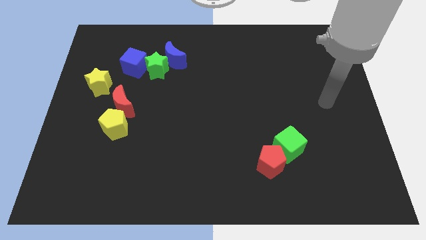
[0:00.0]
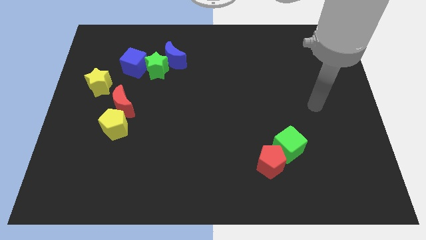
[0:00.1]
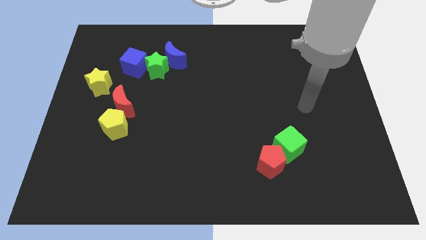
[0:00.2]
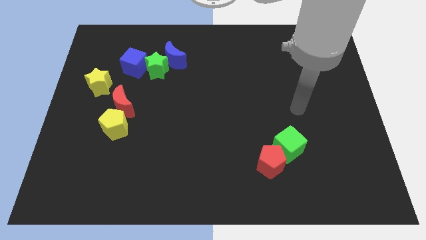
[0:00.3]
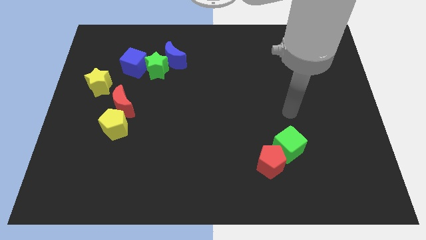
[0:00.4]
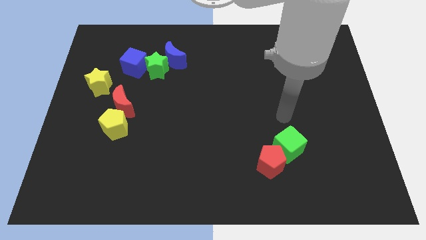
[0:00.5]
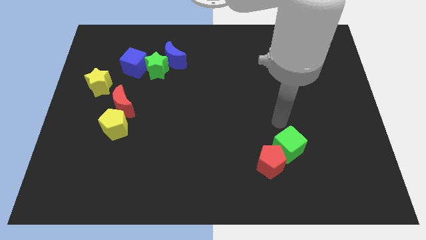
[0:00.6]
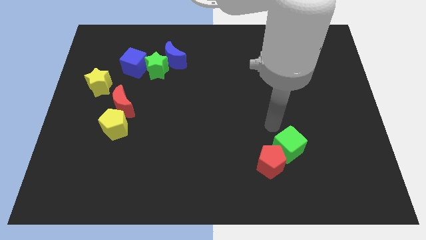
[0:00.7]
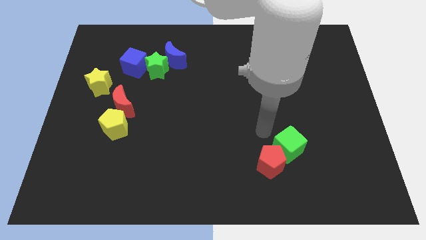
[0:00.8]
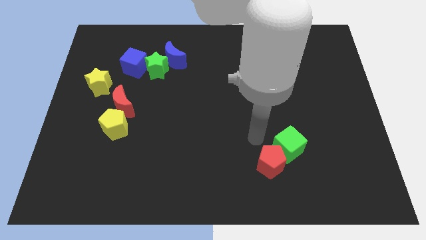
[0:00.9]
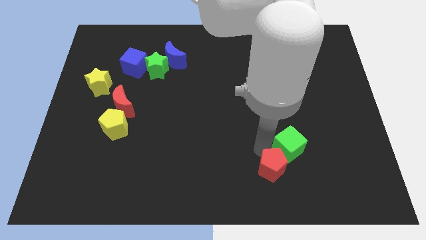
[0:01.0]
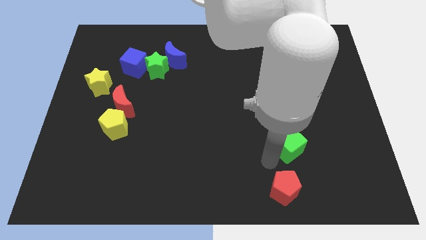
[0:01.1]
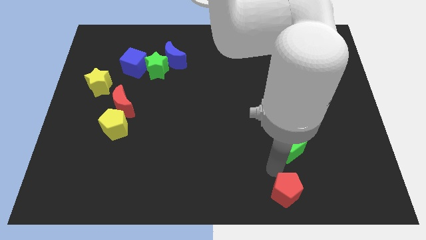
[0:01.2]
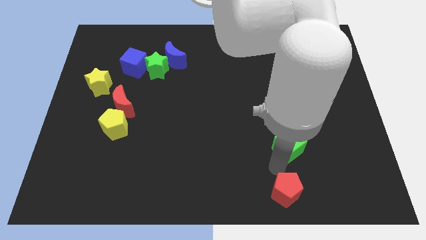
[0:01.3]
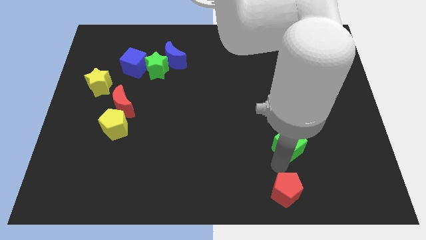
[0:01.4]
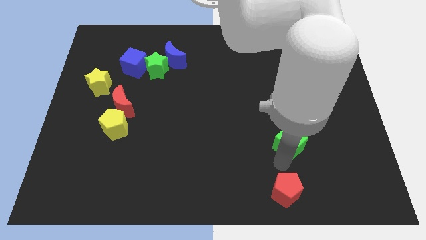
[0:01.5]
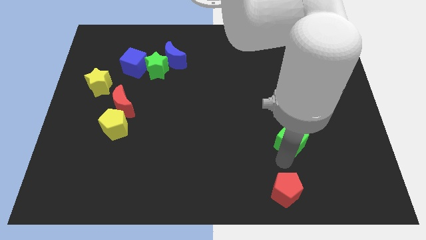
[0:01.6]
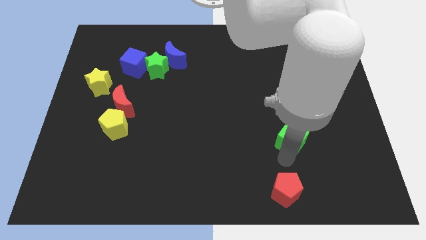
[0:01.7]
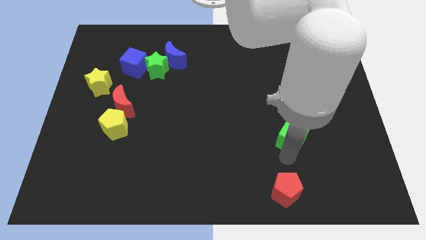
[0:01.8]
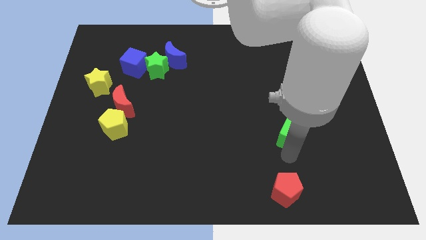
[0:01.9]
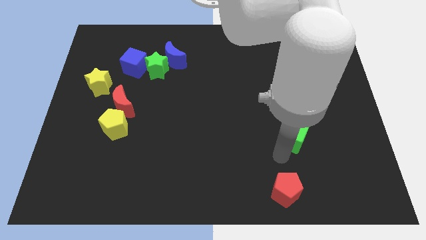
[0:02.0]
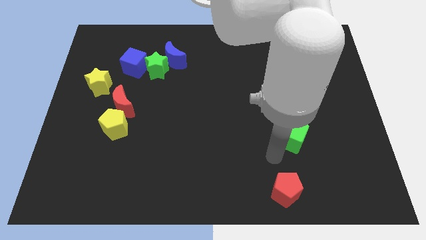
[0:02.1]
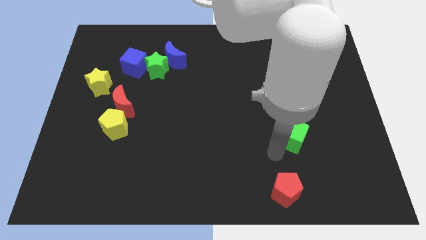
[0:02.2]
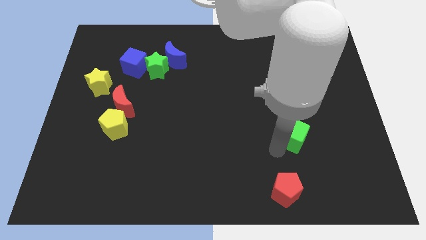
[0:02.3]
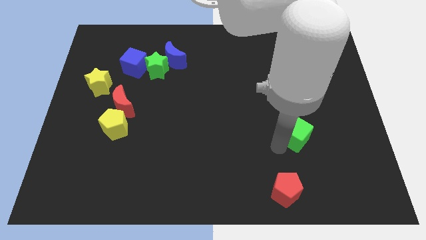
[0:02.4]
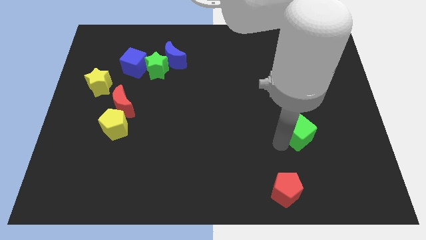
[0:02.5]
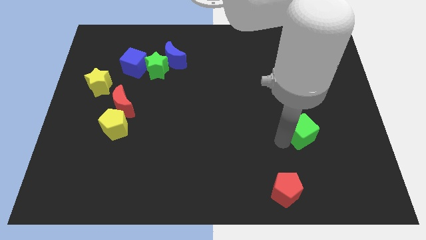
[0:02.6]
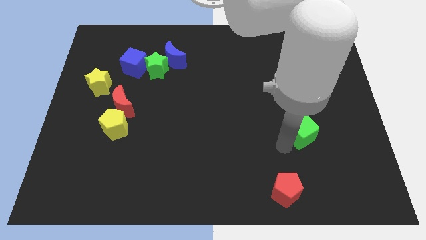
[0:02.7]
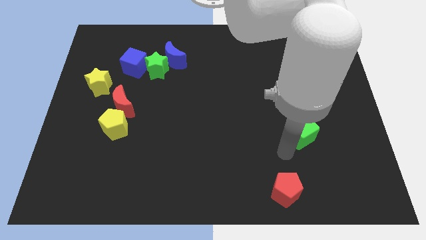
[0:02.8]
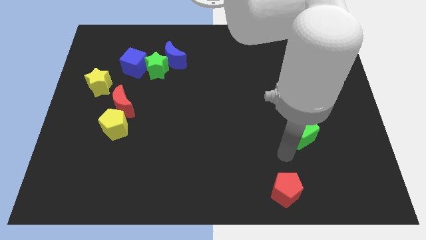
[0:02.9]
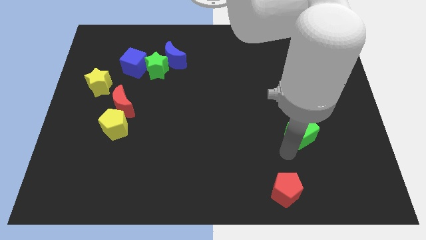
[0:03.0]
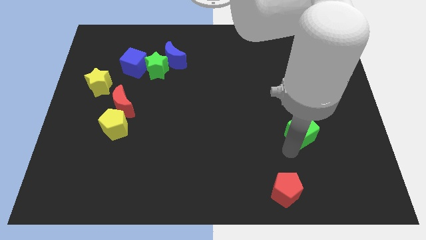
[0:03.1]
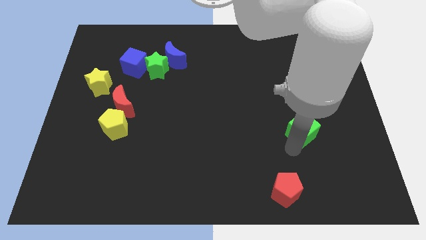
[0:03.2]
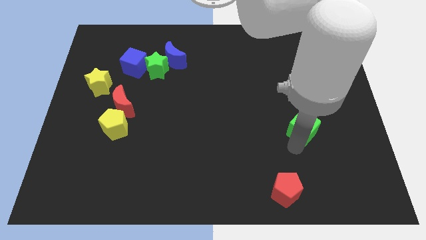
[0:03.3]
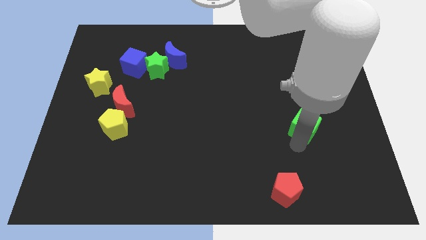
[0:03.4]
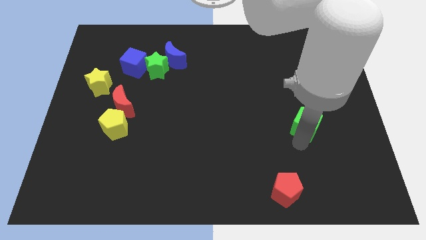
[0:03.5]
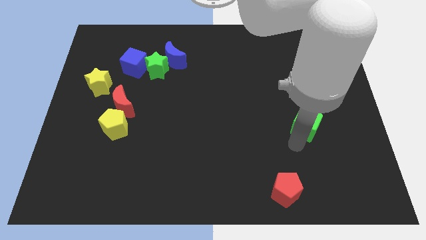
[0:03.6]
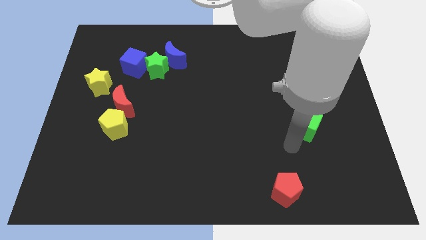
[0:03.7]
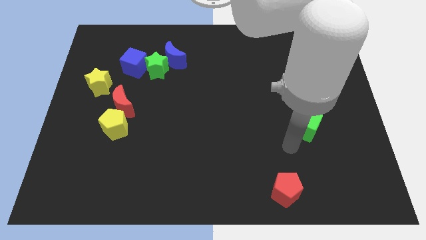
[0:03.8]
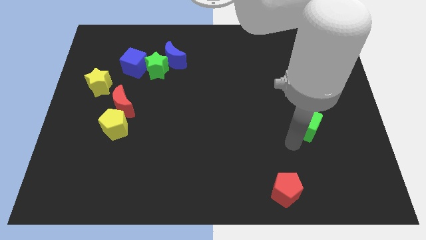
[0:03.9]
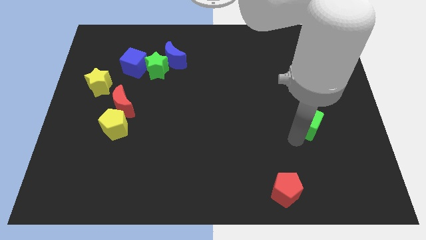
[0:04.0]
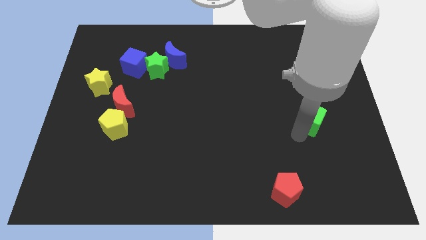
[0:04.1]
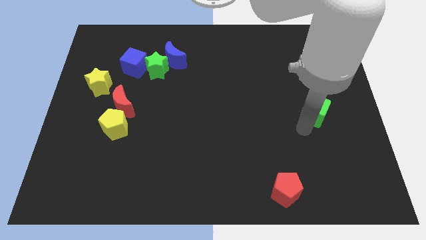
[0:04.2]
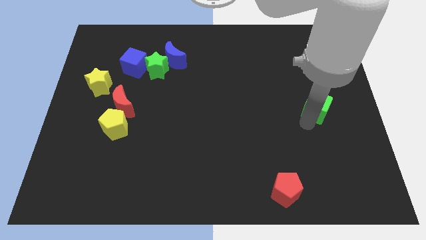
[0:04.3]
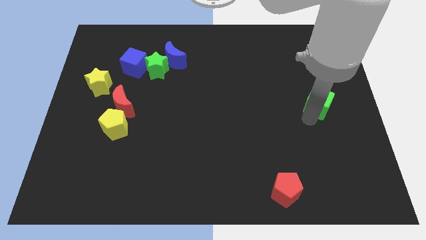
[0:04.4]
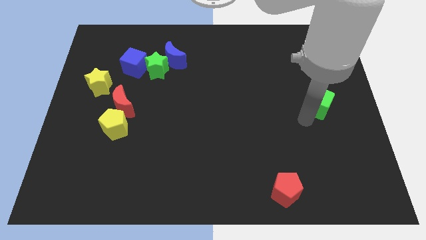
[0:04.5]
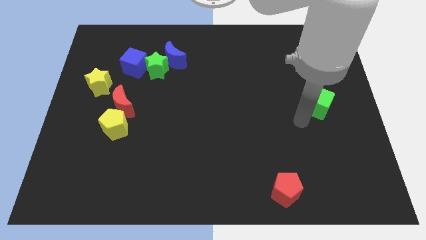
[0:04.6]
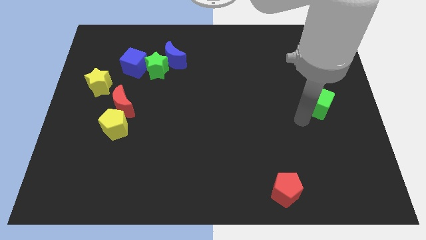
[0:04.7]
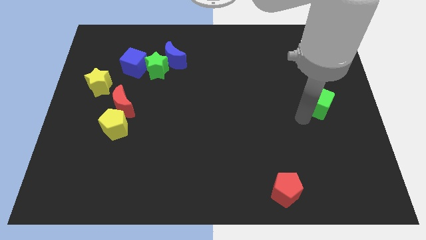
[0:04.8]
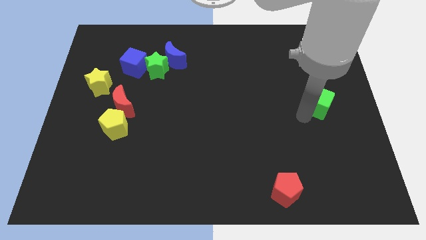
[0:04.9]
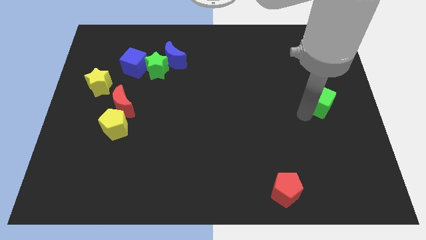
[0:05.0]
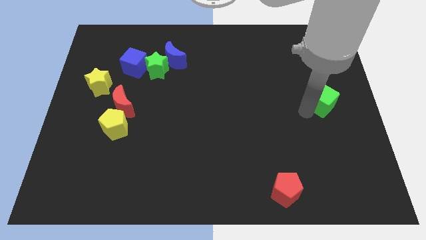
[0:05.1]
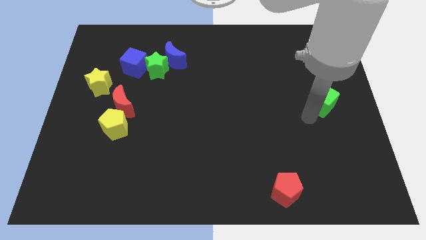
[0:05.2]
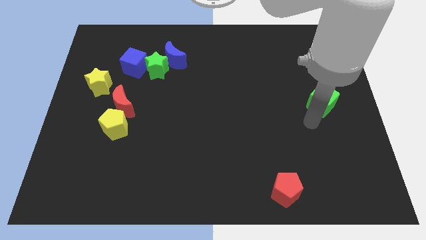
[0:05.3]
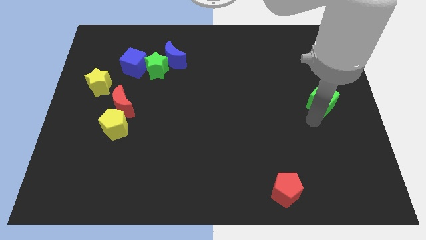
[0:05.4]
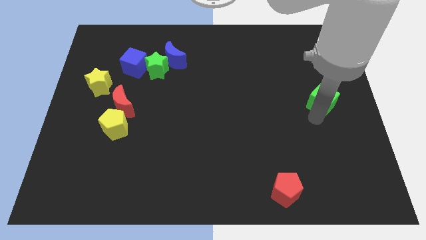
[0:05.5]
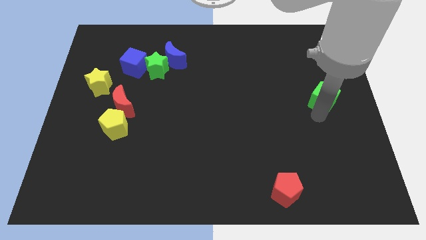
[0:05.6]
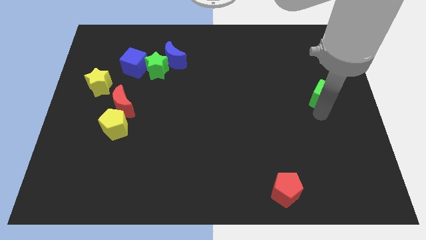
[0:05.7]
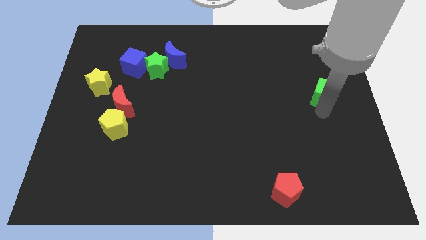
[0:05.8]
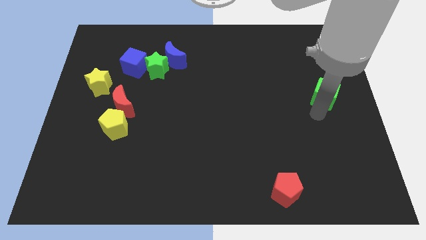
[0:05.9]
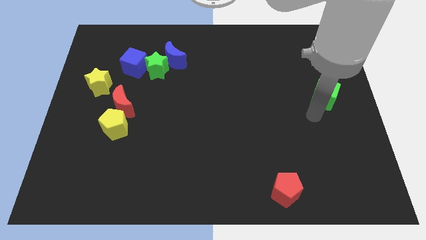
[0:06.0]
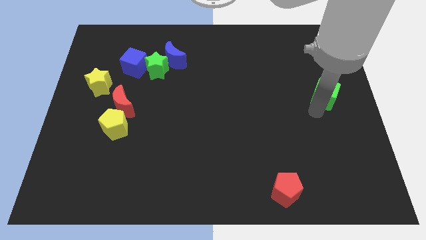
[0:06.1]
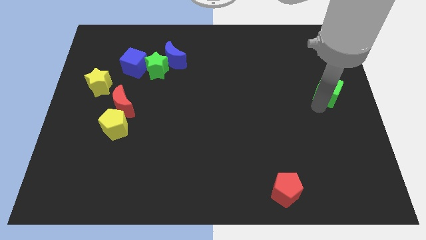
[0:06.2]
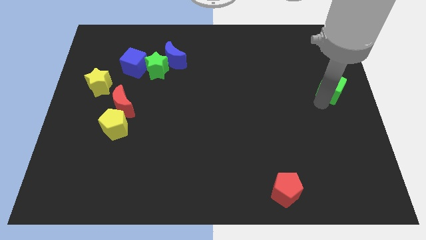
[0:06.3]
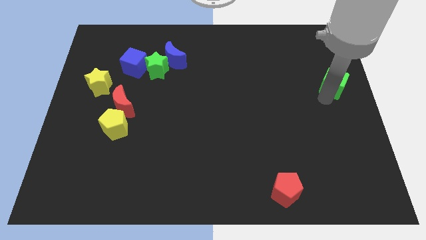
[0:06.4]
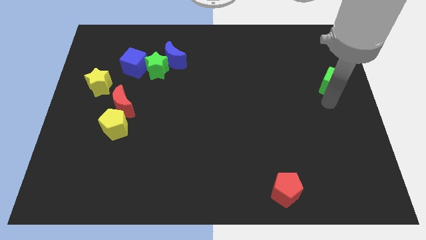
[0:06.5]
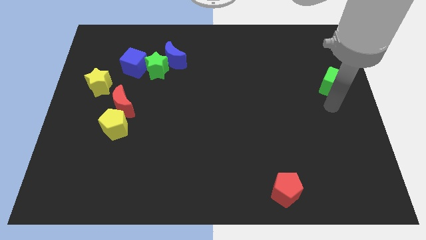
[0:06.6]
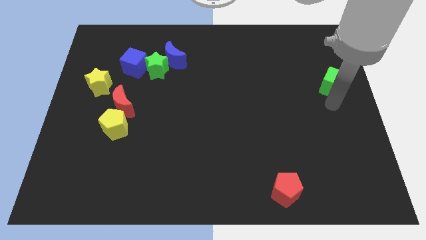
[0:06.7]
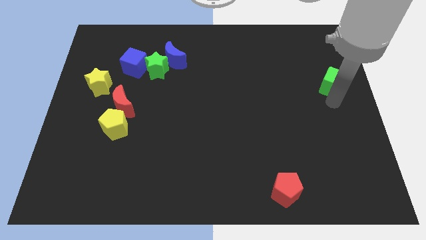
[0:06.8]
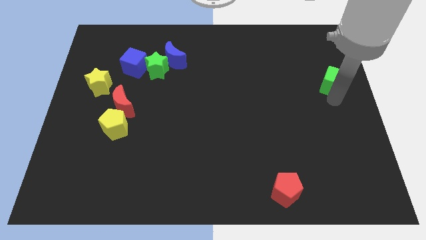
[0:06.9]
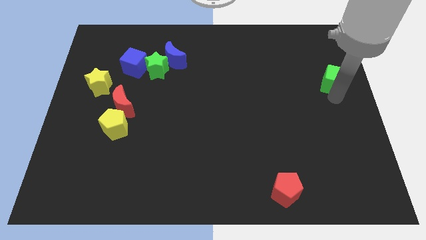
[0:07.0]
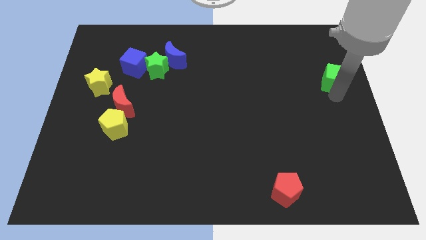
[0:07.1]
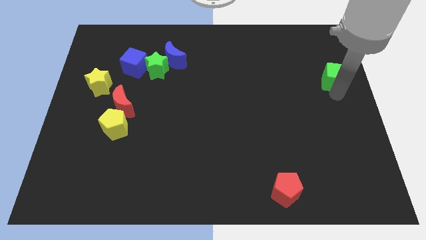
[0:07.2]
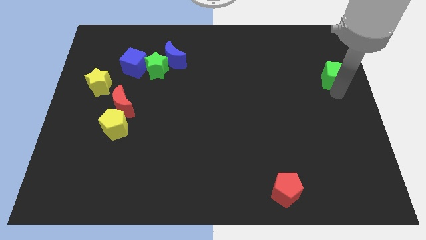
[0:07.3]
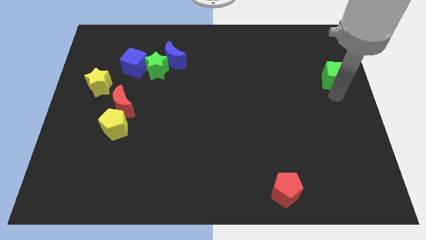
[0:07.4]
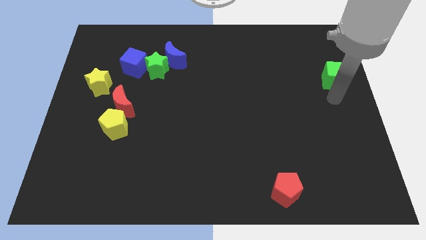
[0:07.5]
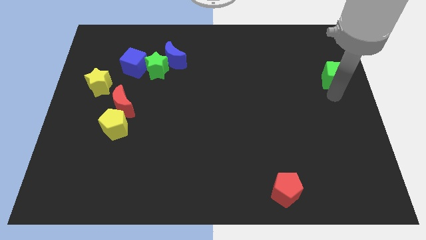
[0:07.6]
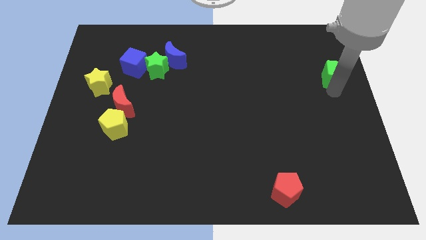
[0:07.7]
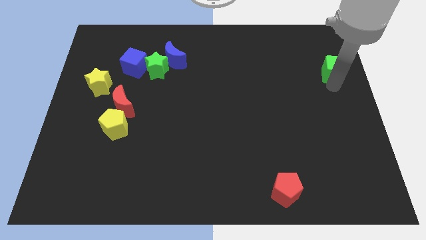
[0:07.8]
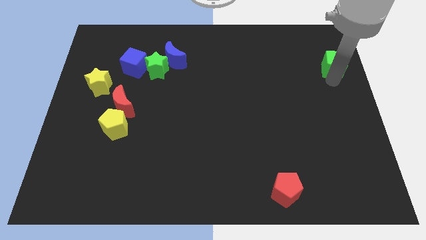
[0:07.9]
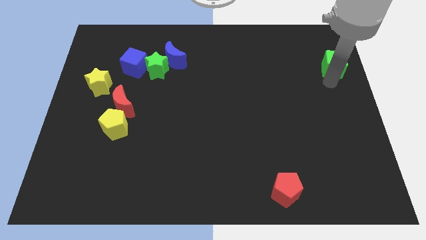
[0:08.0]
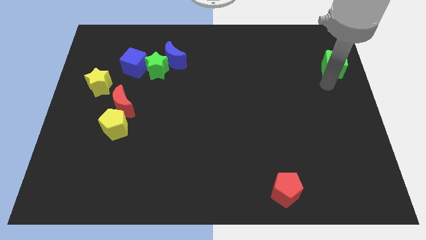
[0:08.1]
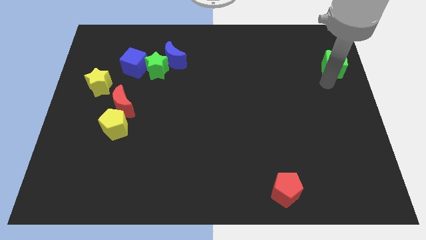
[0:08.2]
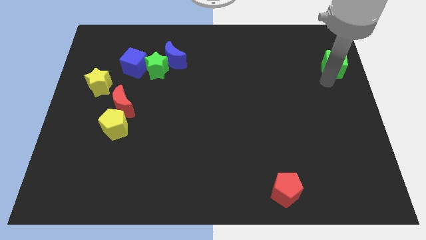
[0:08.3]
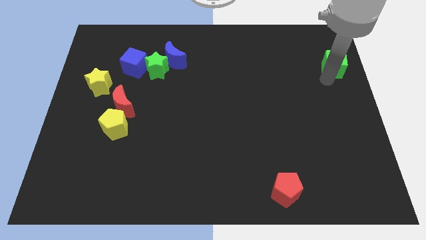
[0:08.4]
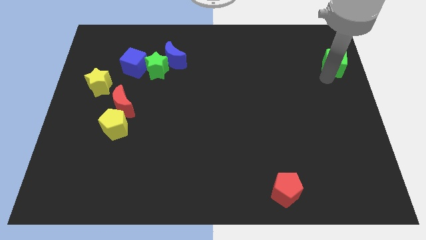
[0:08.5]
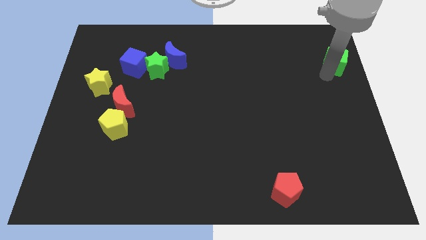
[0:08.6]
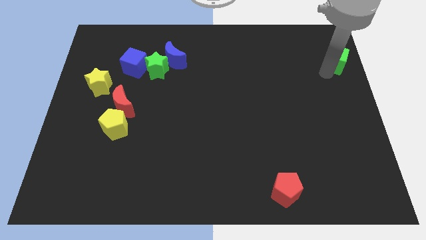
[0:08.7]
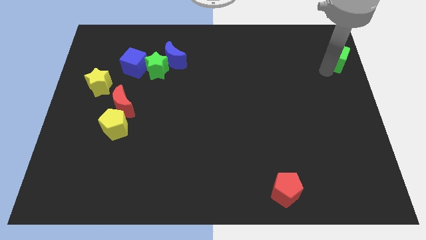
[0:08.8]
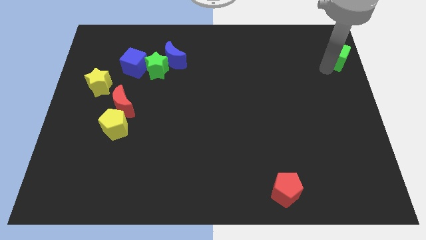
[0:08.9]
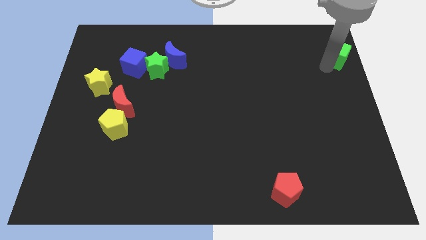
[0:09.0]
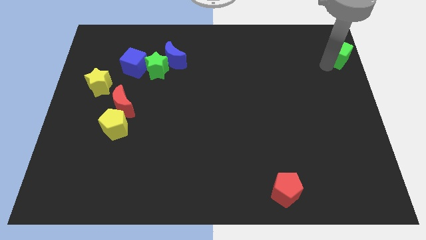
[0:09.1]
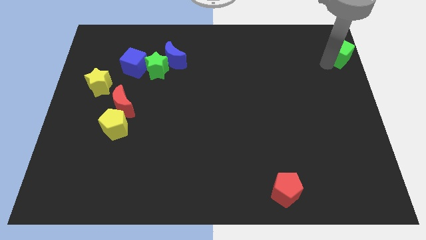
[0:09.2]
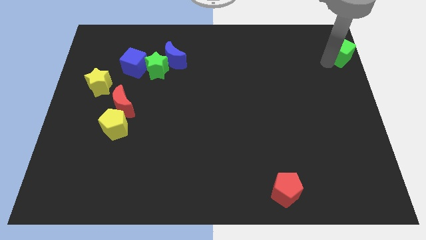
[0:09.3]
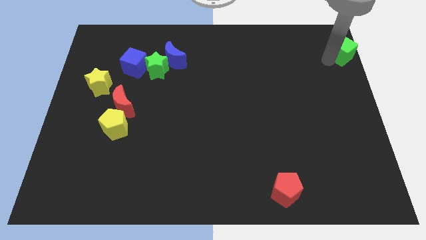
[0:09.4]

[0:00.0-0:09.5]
move the green cube to the top right of the board
